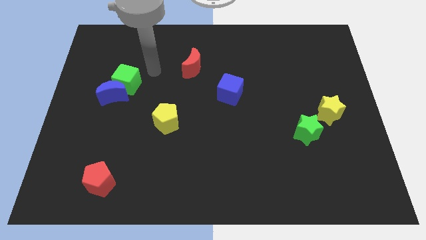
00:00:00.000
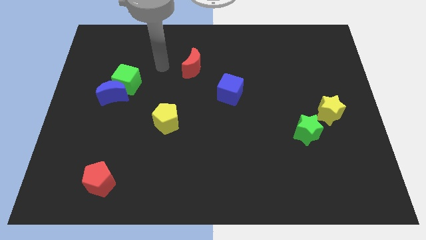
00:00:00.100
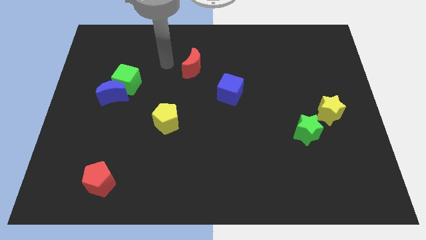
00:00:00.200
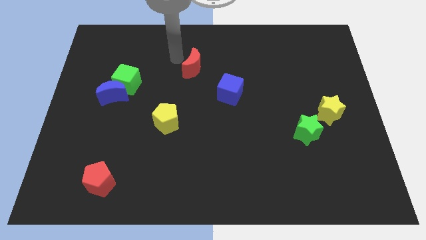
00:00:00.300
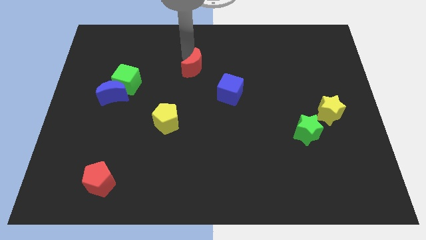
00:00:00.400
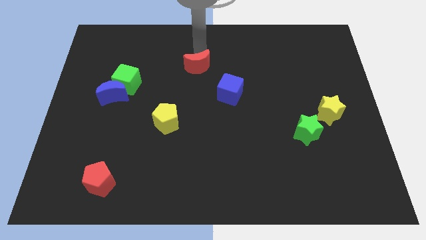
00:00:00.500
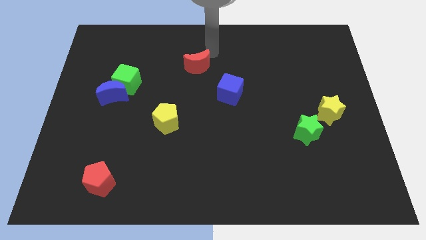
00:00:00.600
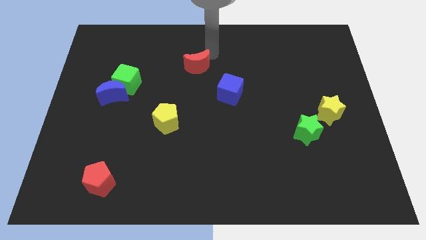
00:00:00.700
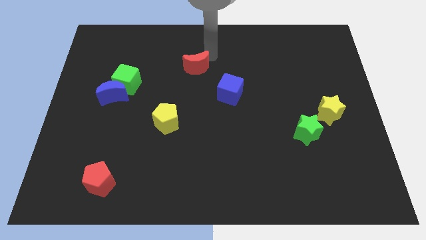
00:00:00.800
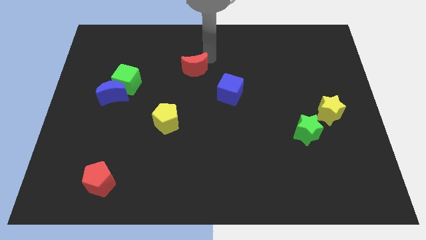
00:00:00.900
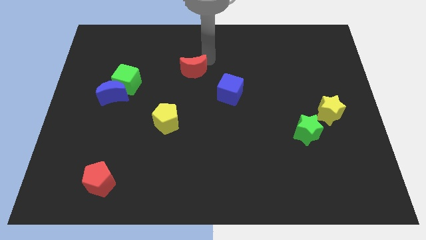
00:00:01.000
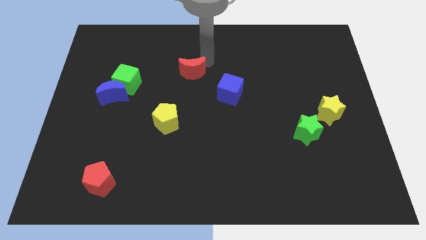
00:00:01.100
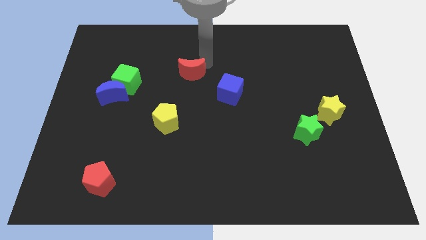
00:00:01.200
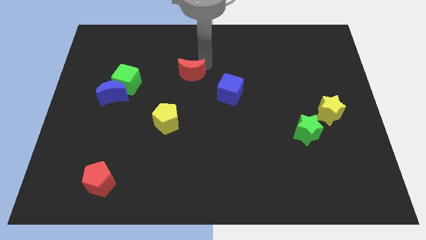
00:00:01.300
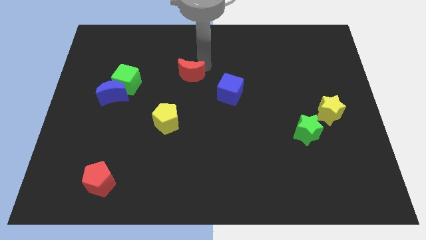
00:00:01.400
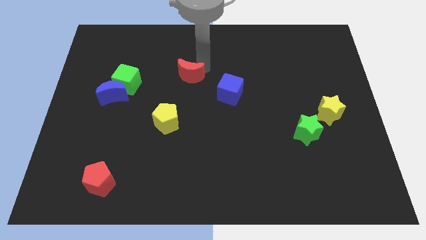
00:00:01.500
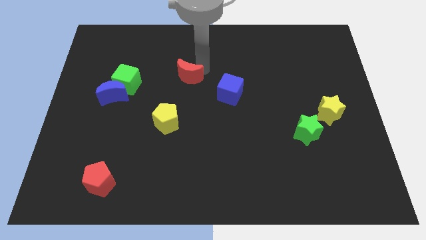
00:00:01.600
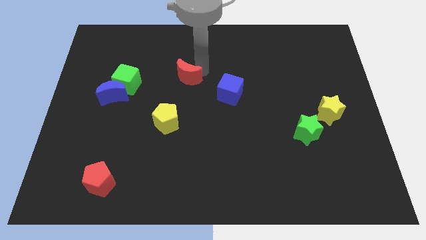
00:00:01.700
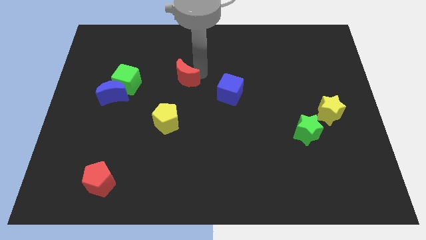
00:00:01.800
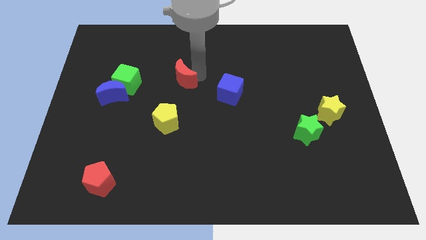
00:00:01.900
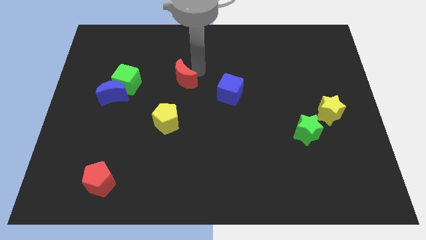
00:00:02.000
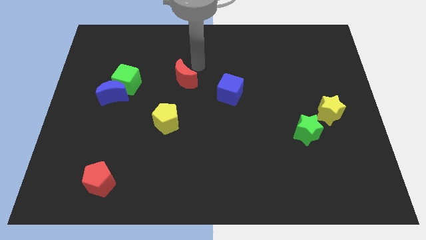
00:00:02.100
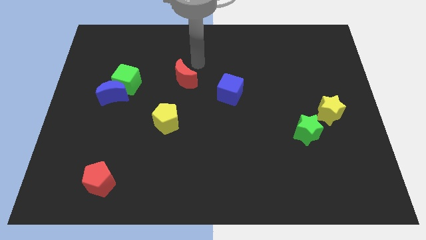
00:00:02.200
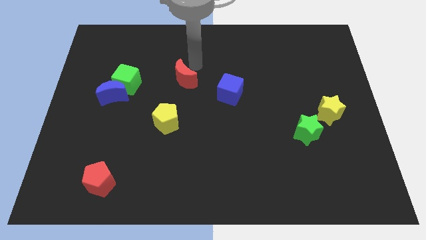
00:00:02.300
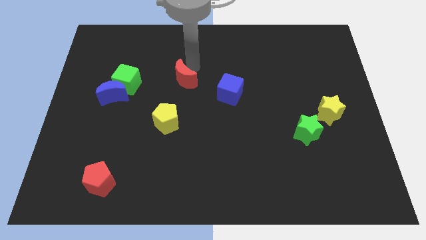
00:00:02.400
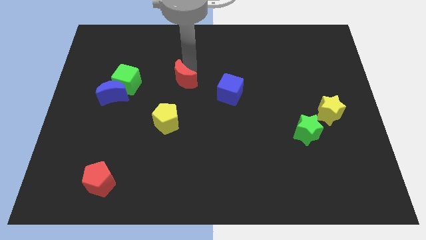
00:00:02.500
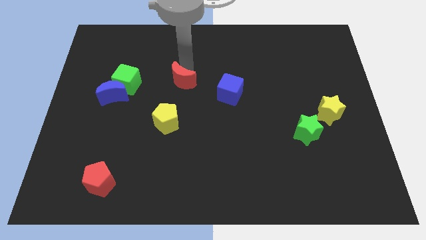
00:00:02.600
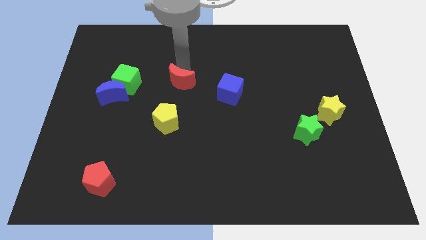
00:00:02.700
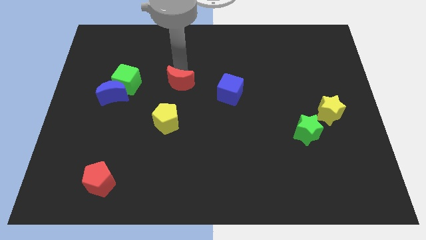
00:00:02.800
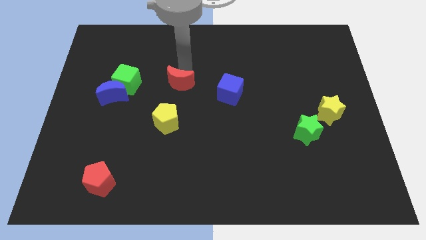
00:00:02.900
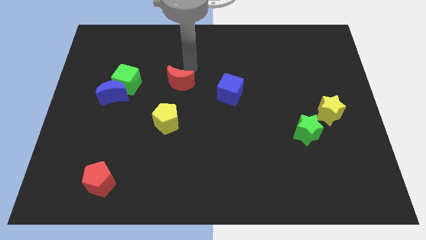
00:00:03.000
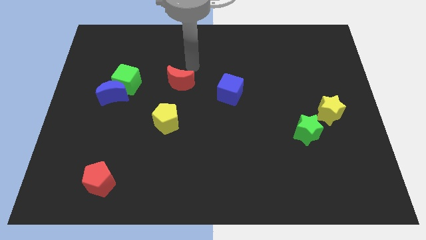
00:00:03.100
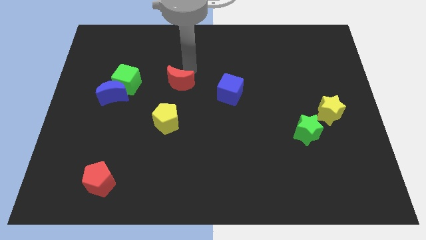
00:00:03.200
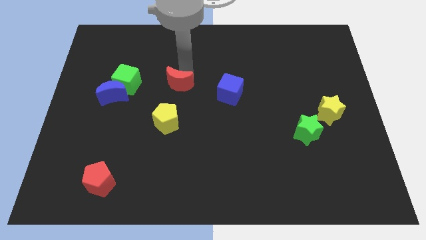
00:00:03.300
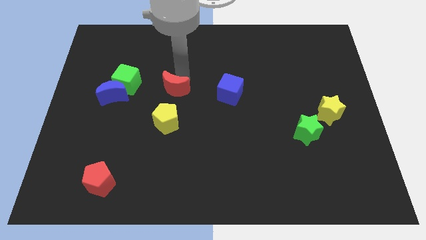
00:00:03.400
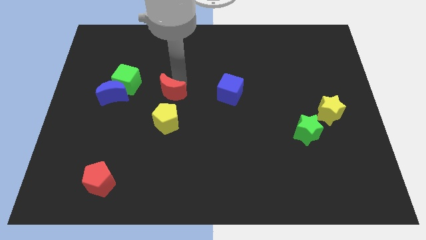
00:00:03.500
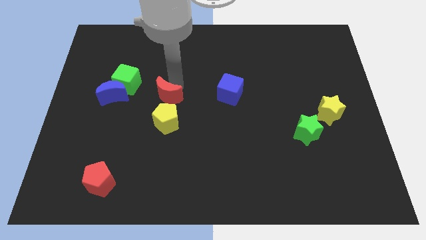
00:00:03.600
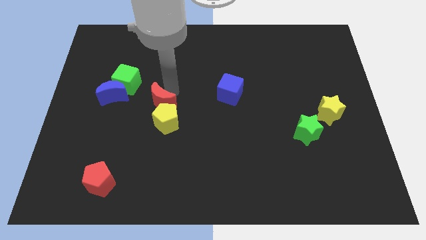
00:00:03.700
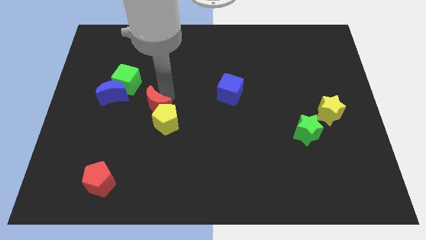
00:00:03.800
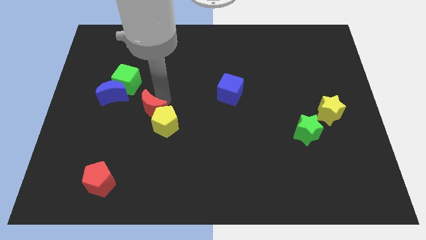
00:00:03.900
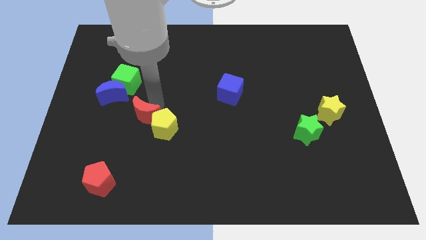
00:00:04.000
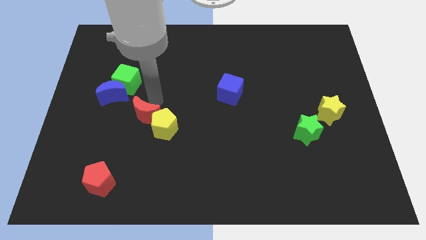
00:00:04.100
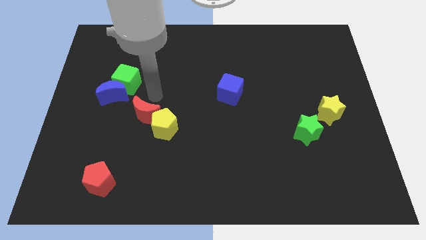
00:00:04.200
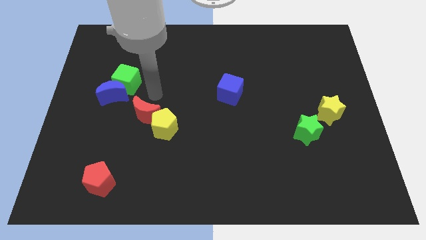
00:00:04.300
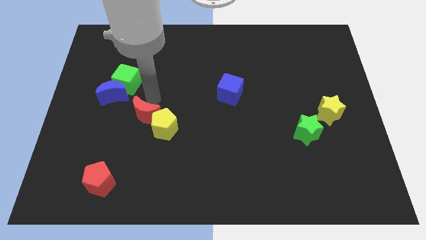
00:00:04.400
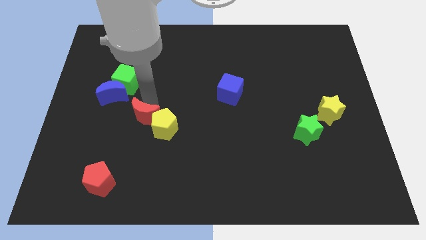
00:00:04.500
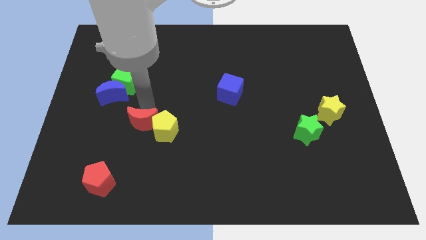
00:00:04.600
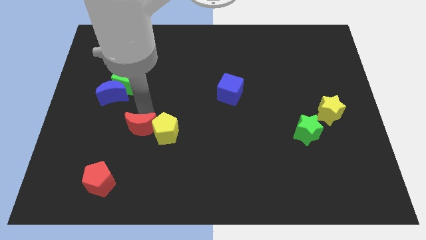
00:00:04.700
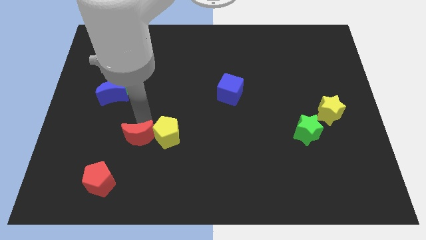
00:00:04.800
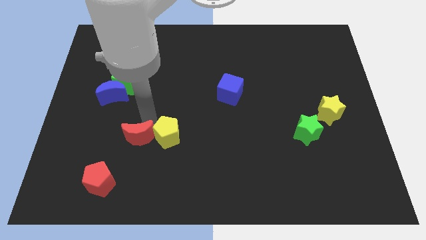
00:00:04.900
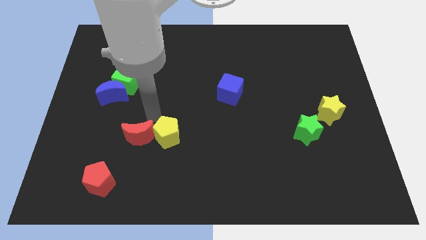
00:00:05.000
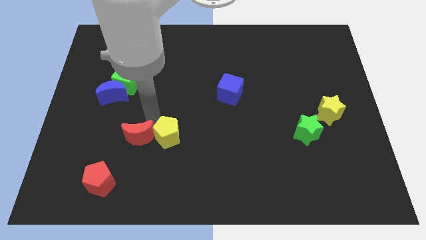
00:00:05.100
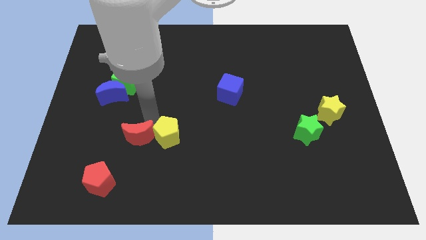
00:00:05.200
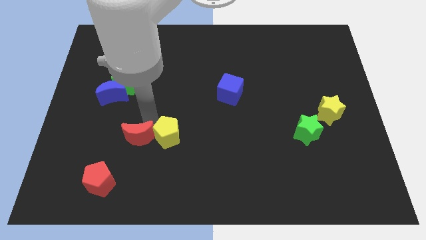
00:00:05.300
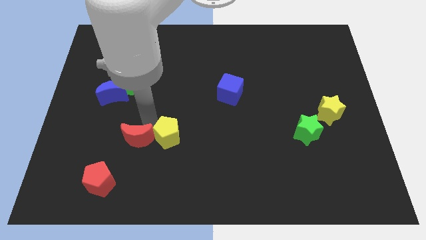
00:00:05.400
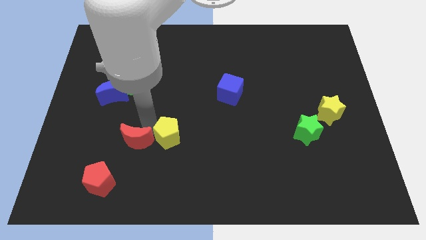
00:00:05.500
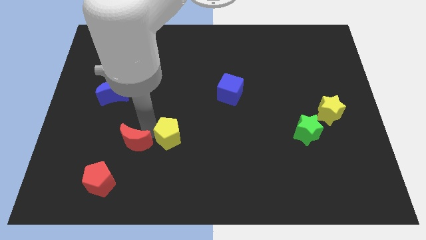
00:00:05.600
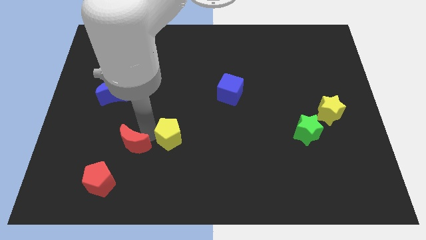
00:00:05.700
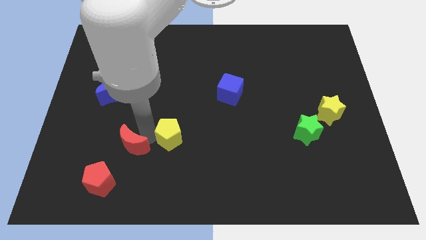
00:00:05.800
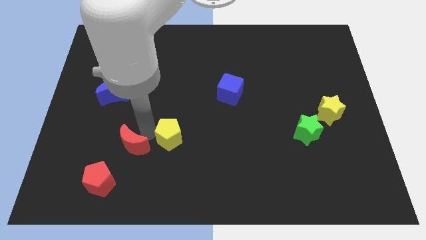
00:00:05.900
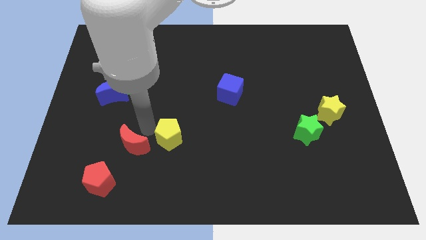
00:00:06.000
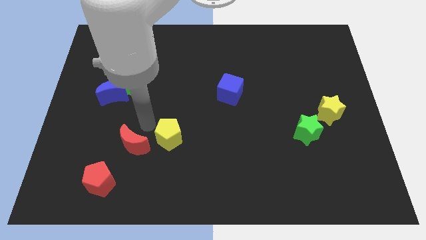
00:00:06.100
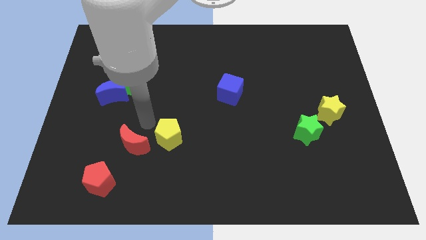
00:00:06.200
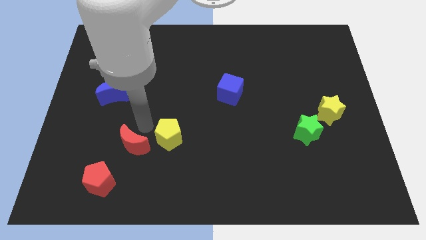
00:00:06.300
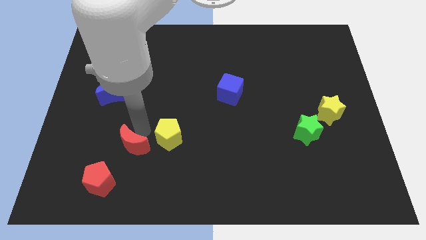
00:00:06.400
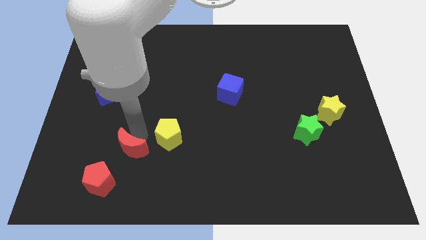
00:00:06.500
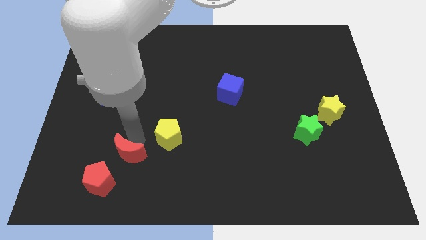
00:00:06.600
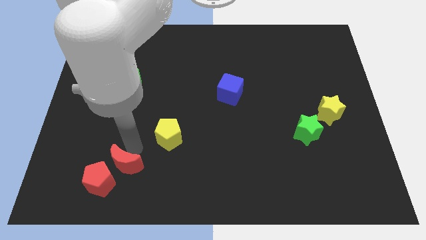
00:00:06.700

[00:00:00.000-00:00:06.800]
slide the red moon close to the red pentagon

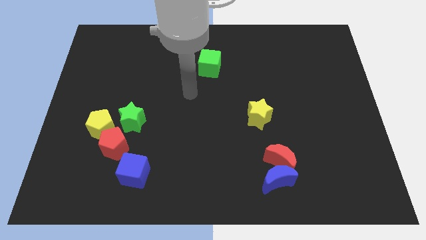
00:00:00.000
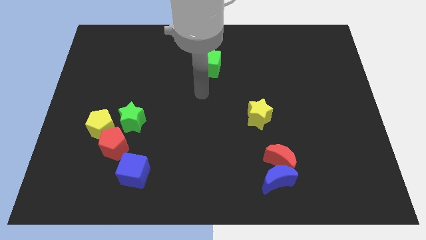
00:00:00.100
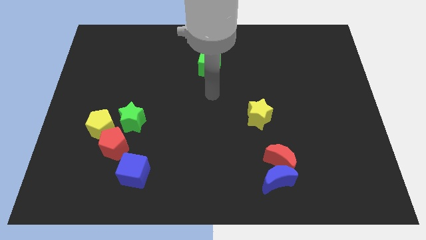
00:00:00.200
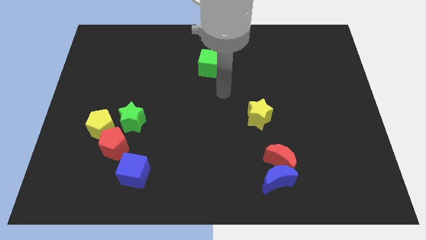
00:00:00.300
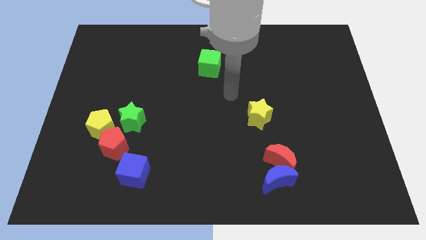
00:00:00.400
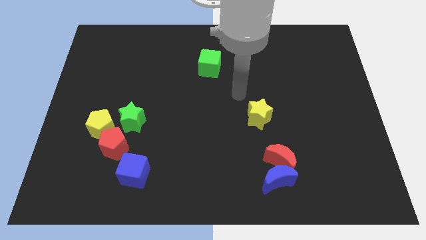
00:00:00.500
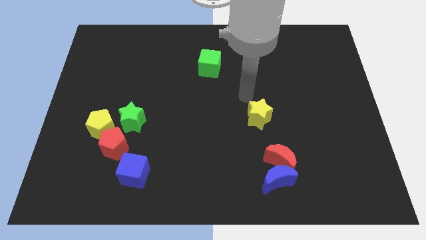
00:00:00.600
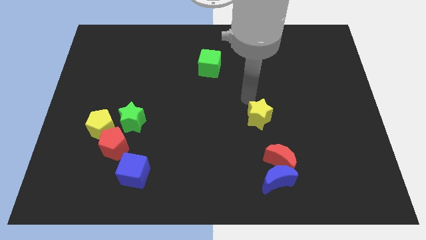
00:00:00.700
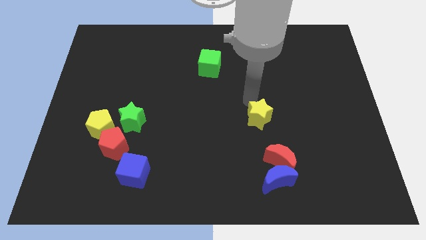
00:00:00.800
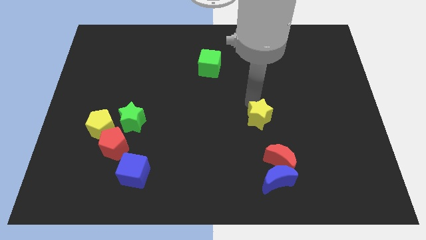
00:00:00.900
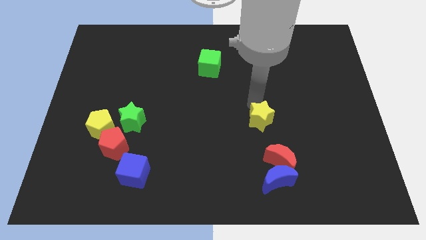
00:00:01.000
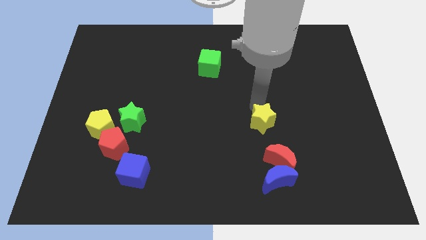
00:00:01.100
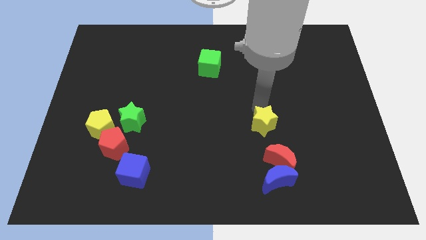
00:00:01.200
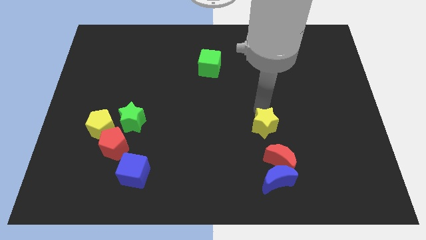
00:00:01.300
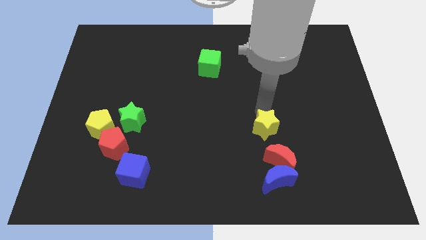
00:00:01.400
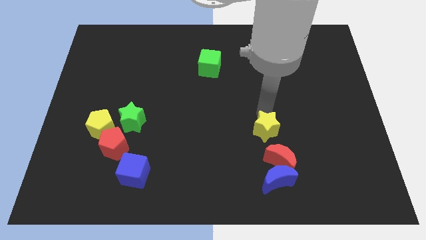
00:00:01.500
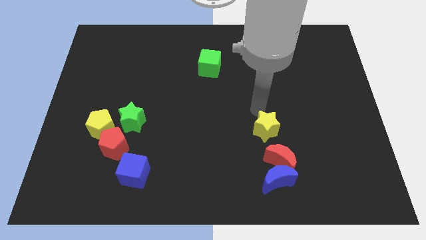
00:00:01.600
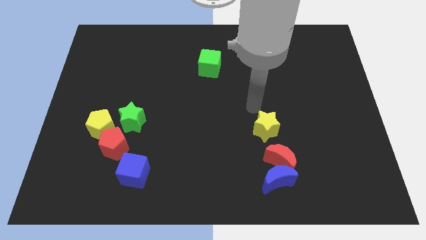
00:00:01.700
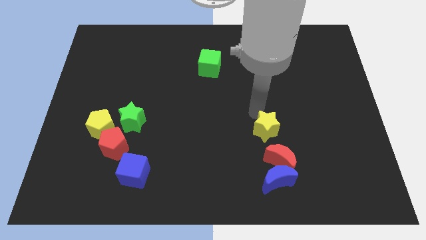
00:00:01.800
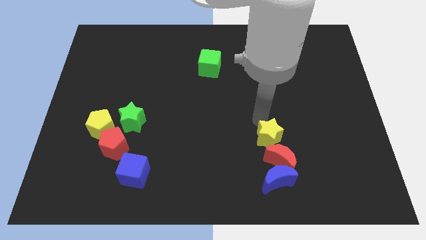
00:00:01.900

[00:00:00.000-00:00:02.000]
push the yellow star next to the red moon
